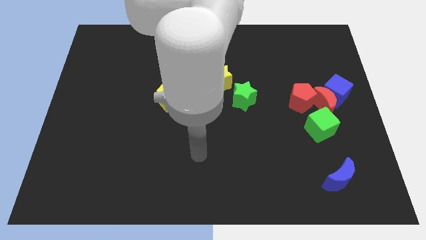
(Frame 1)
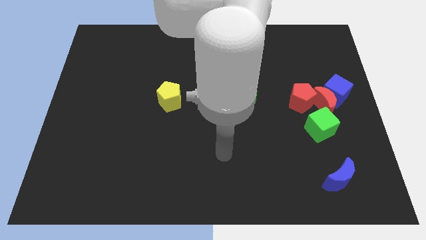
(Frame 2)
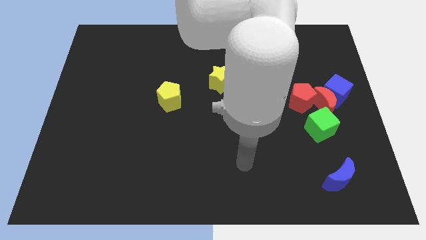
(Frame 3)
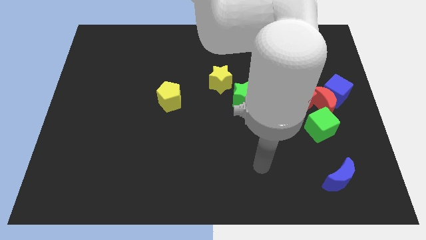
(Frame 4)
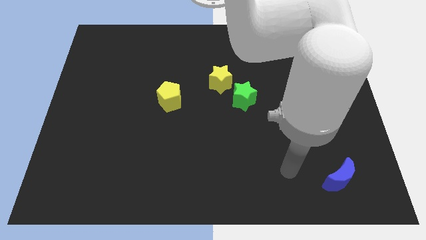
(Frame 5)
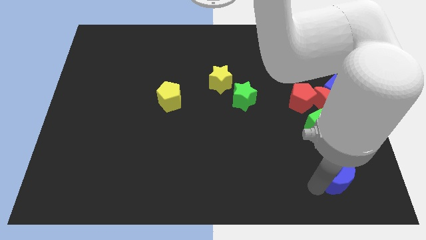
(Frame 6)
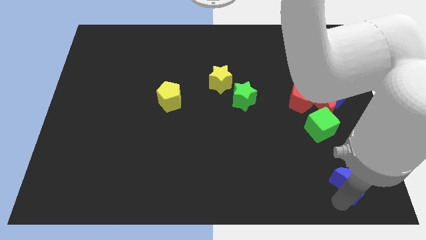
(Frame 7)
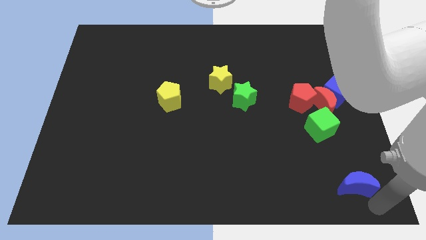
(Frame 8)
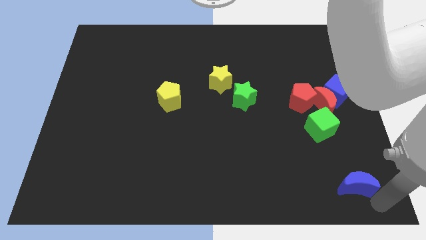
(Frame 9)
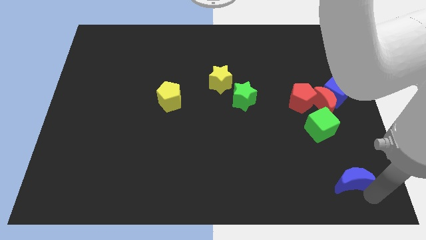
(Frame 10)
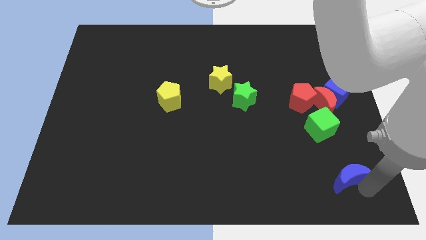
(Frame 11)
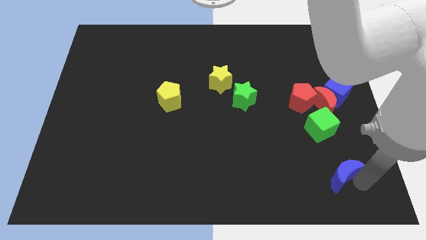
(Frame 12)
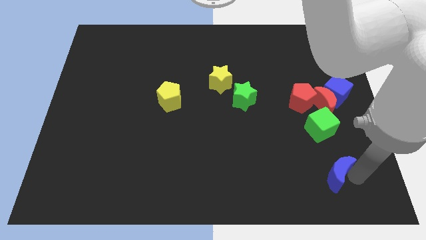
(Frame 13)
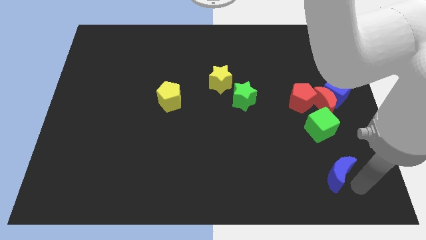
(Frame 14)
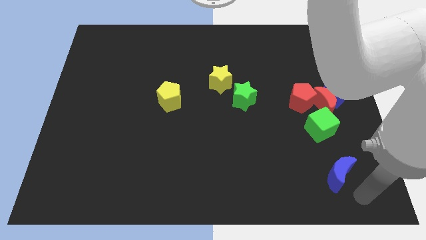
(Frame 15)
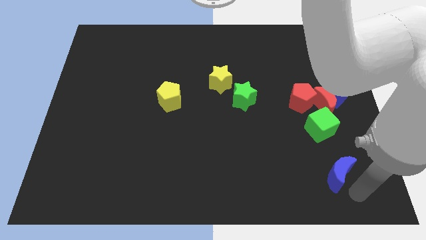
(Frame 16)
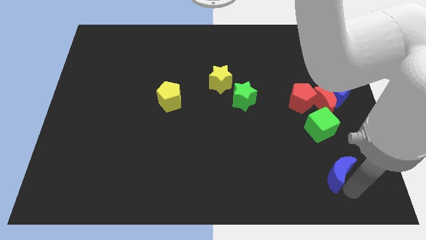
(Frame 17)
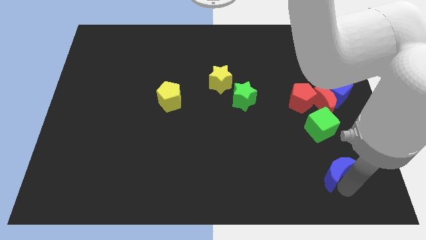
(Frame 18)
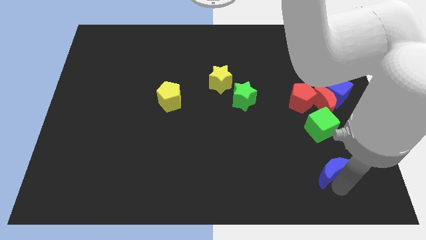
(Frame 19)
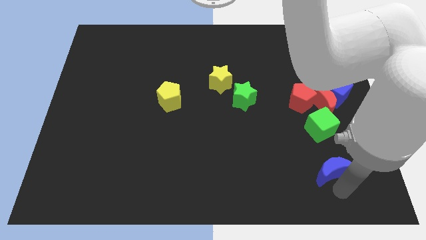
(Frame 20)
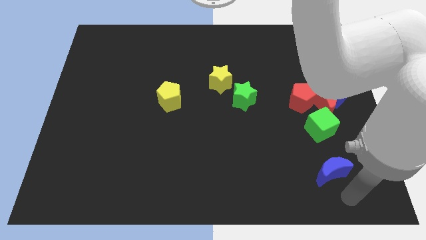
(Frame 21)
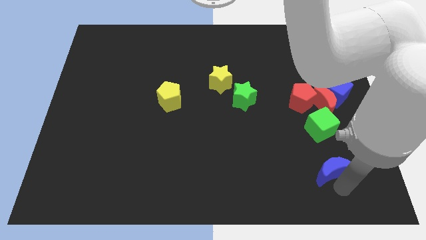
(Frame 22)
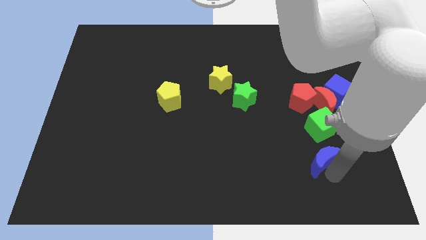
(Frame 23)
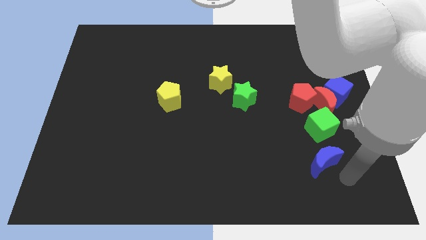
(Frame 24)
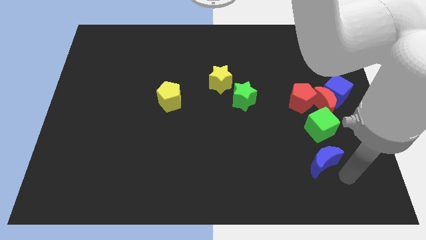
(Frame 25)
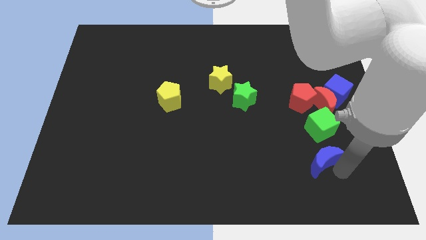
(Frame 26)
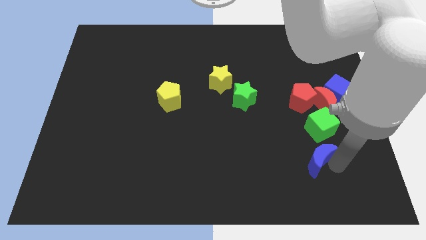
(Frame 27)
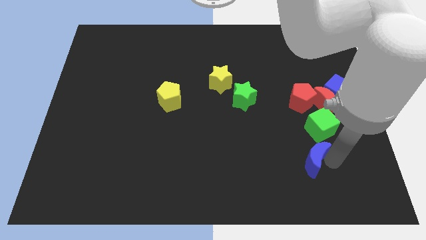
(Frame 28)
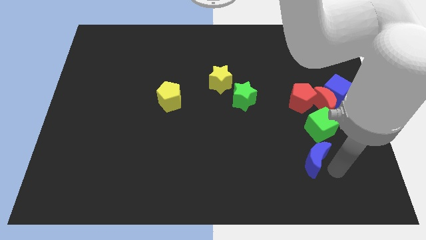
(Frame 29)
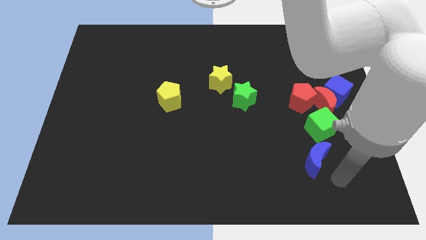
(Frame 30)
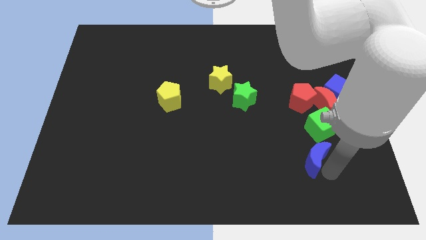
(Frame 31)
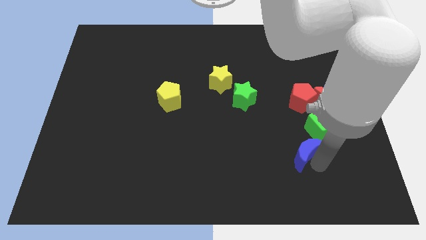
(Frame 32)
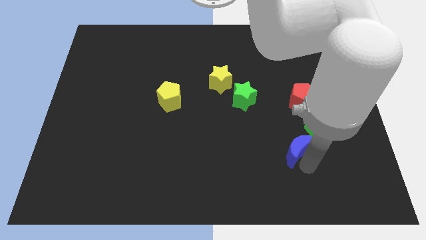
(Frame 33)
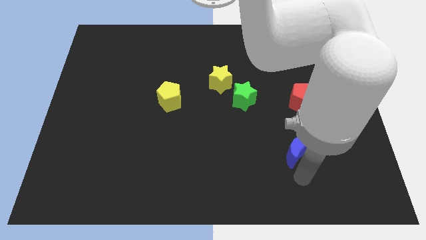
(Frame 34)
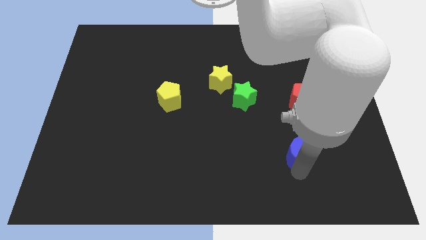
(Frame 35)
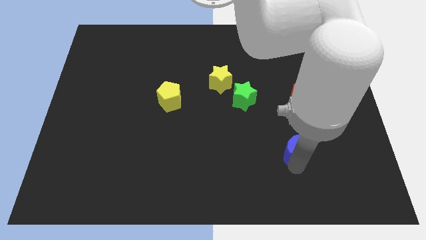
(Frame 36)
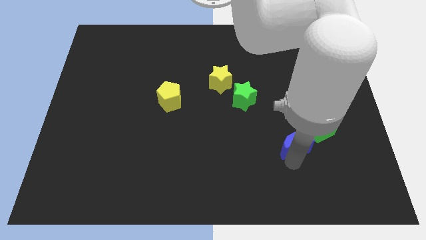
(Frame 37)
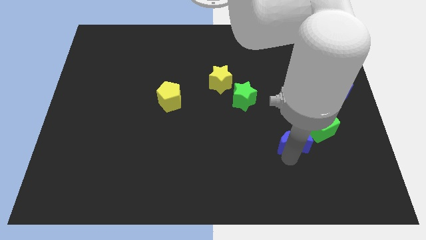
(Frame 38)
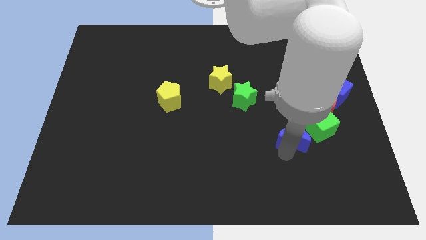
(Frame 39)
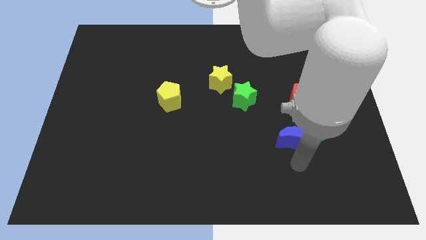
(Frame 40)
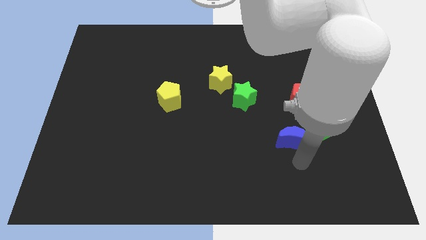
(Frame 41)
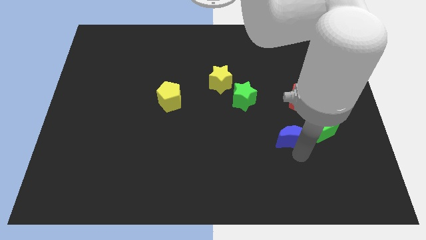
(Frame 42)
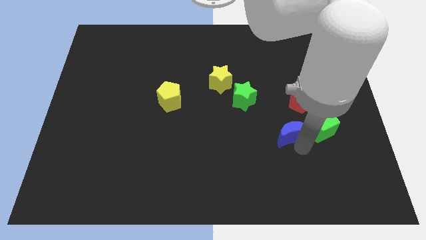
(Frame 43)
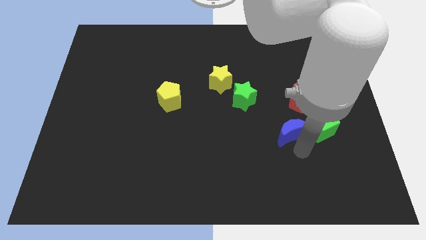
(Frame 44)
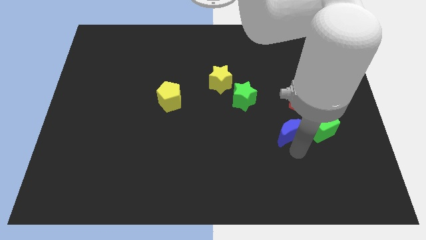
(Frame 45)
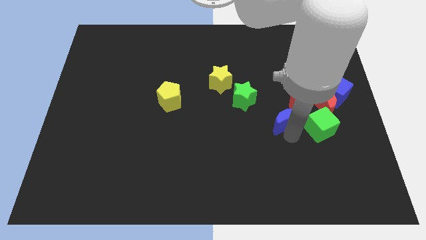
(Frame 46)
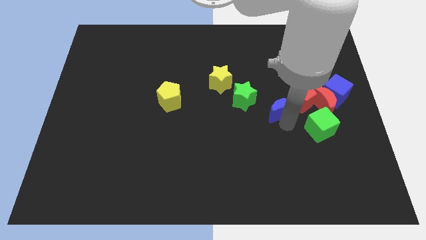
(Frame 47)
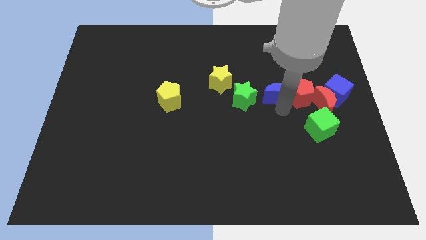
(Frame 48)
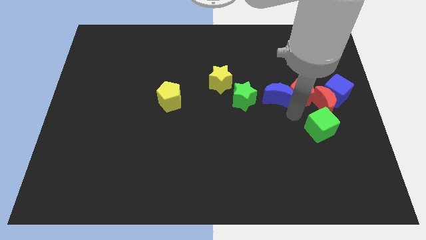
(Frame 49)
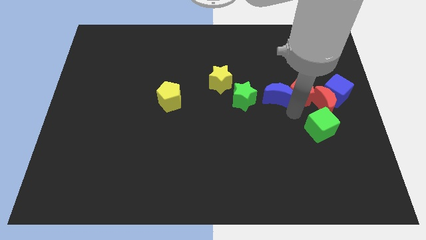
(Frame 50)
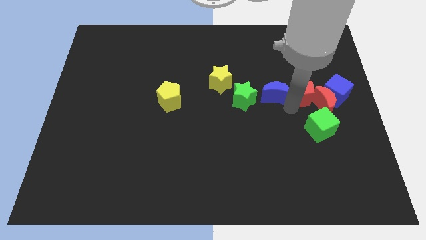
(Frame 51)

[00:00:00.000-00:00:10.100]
slide the blue moon just right of the yellow star

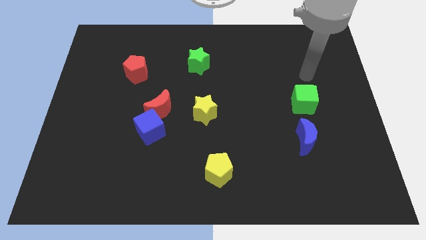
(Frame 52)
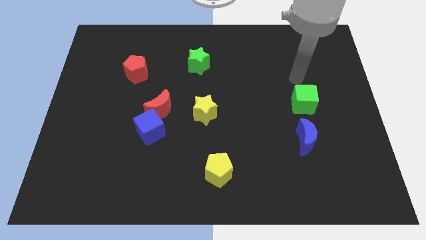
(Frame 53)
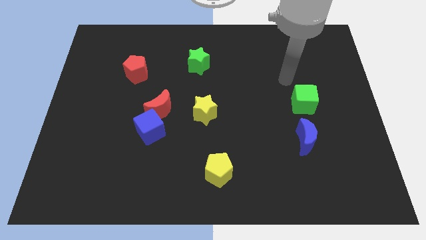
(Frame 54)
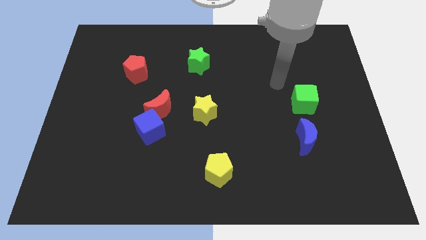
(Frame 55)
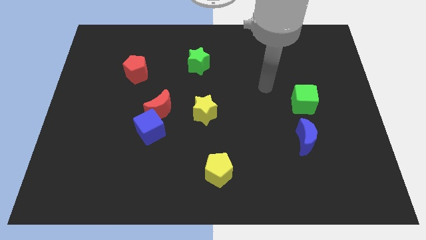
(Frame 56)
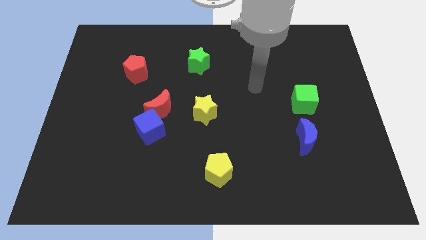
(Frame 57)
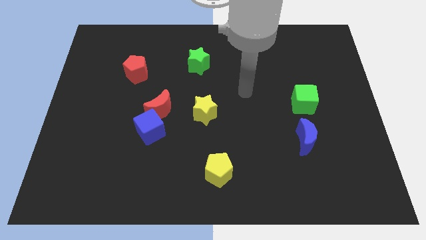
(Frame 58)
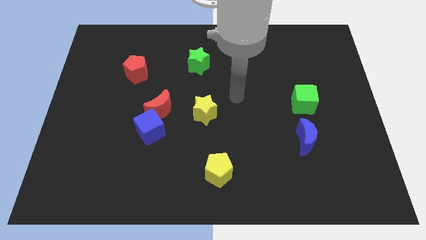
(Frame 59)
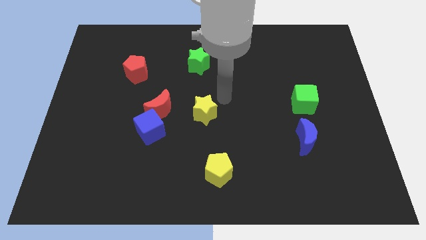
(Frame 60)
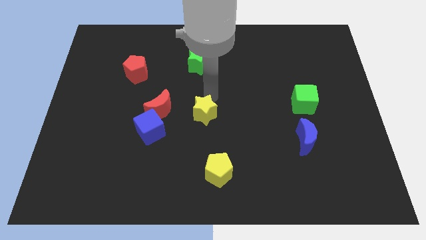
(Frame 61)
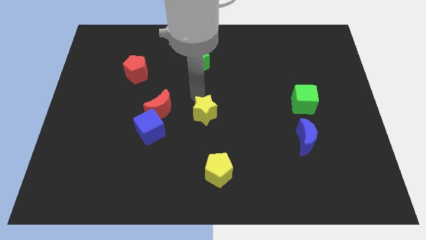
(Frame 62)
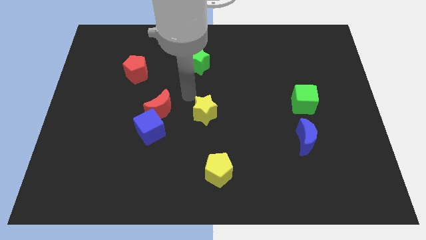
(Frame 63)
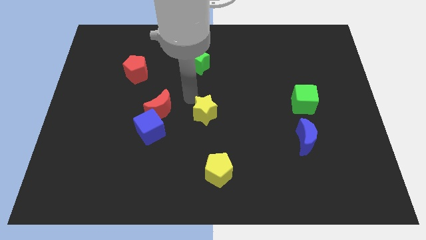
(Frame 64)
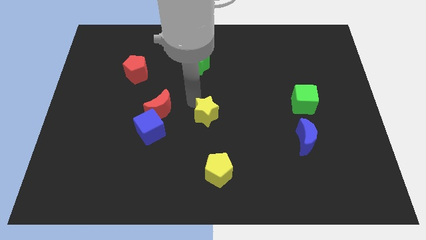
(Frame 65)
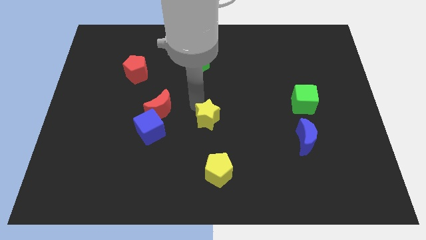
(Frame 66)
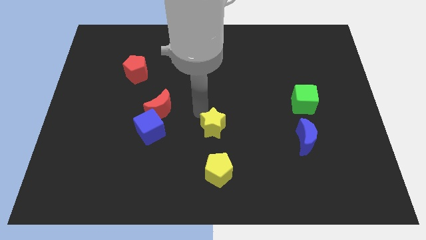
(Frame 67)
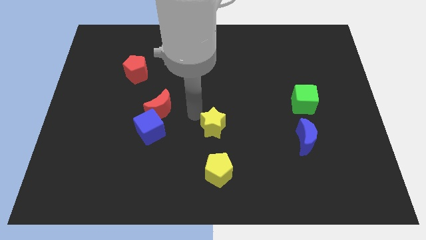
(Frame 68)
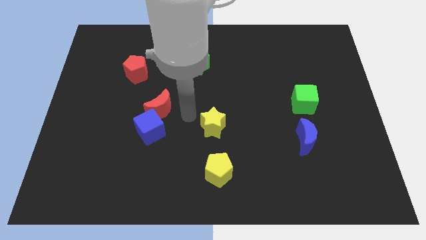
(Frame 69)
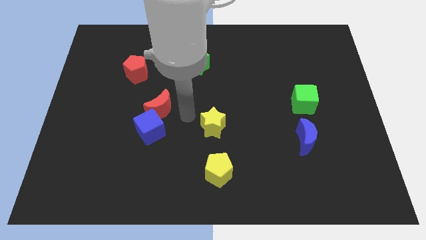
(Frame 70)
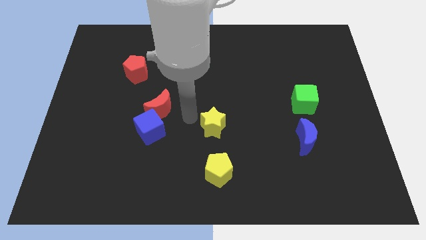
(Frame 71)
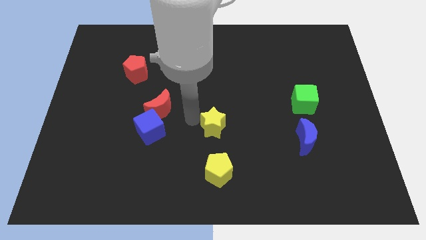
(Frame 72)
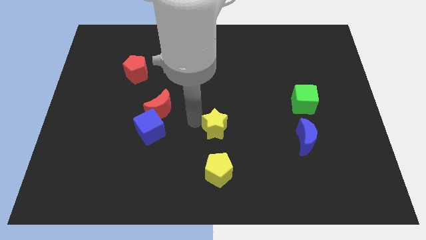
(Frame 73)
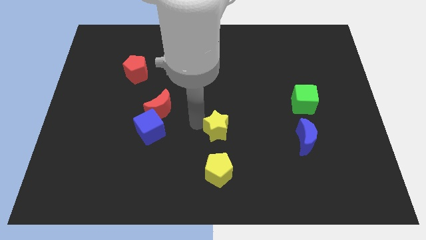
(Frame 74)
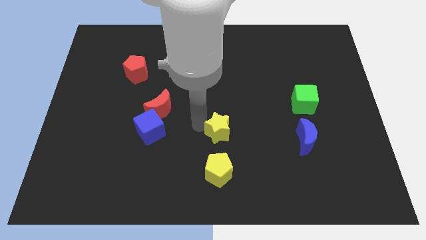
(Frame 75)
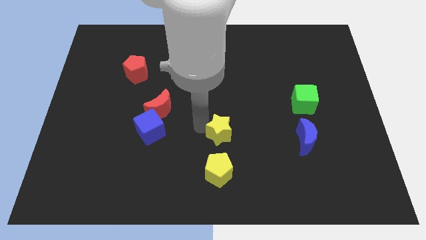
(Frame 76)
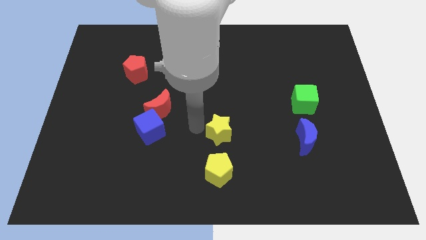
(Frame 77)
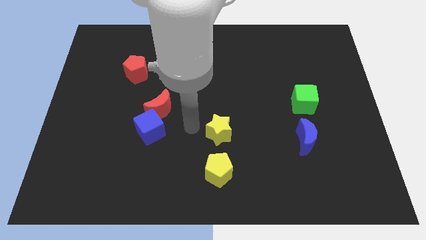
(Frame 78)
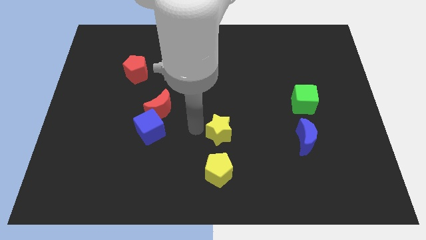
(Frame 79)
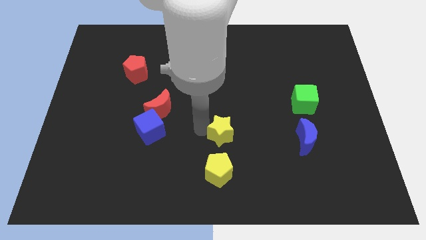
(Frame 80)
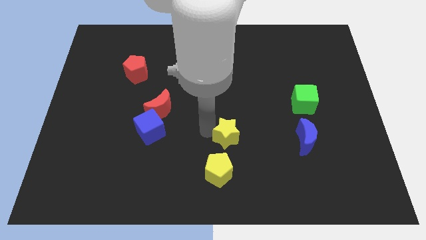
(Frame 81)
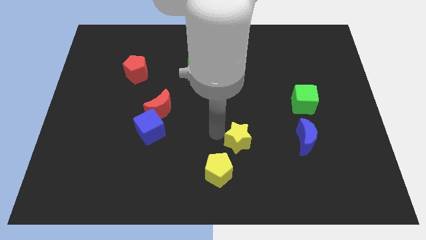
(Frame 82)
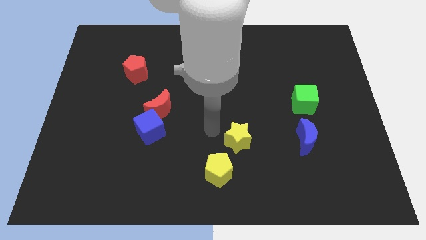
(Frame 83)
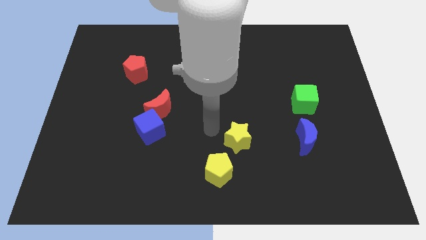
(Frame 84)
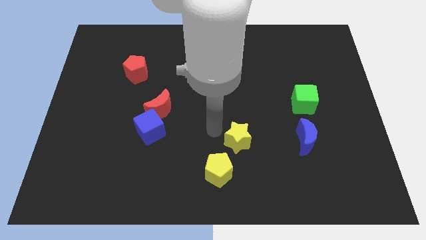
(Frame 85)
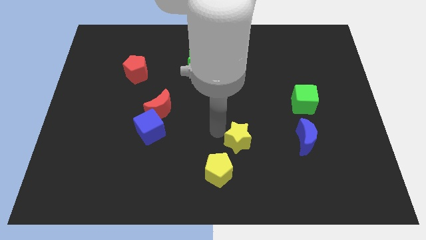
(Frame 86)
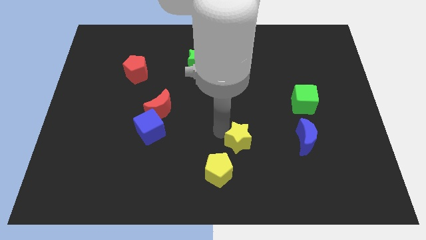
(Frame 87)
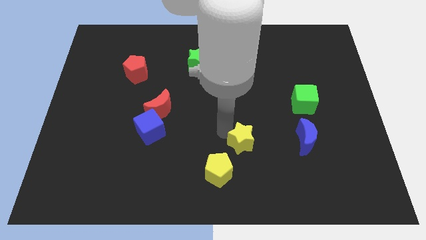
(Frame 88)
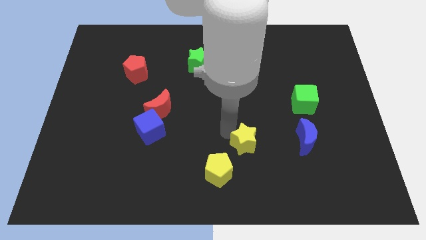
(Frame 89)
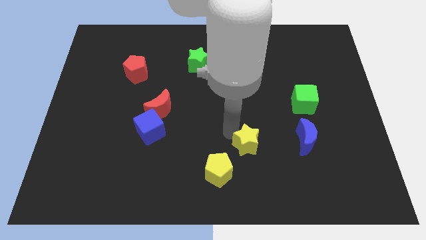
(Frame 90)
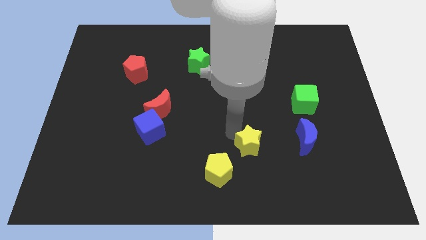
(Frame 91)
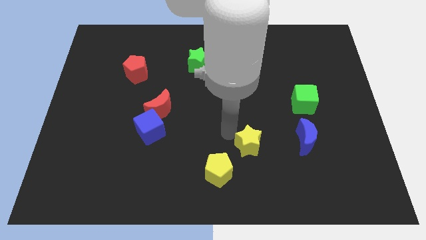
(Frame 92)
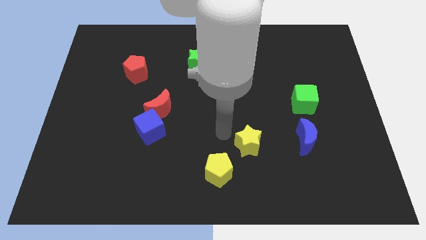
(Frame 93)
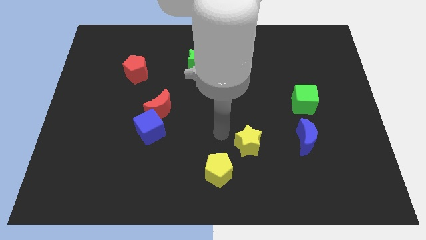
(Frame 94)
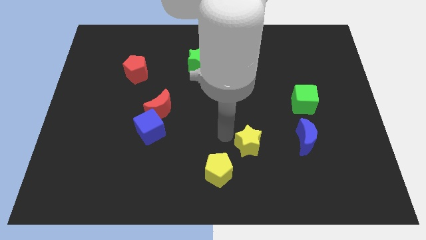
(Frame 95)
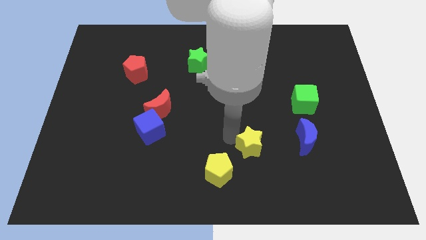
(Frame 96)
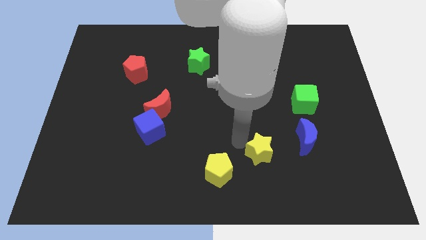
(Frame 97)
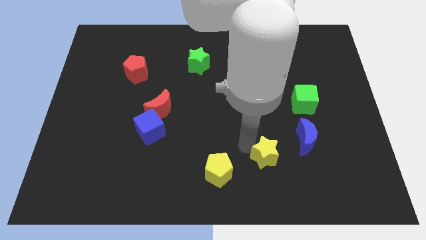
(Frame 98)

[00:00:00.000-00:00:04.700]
push the yellow star to the bottom left side of the blue moon
